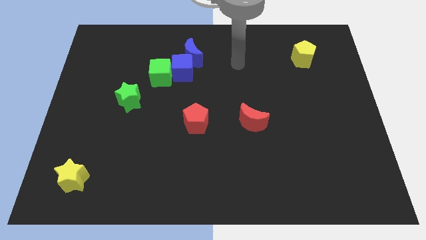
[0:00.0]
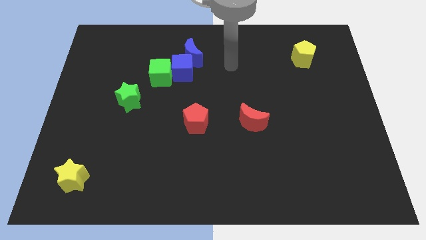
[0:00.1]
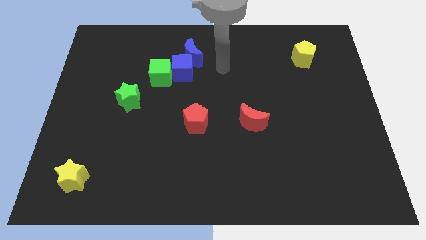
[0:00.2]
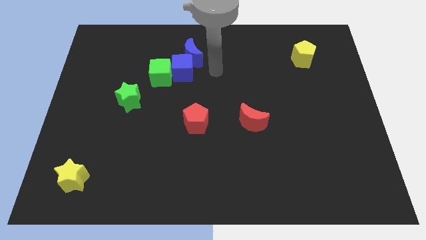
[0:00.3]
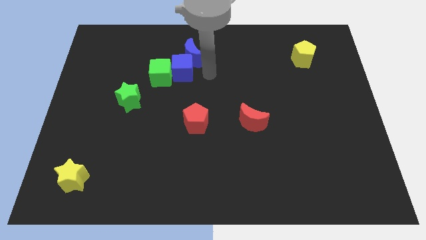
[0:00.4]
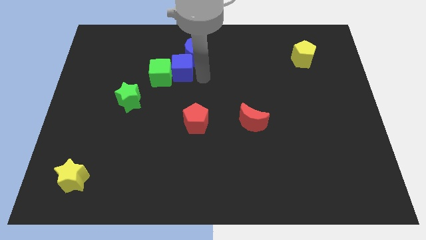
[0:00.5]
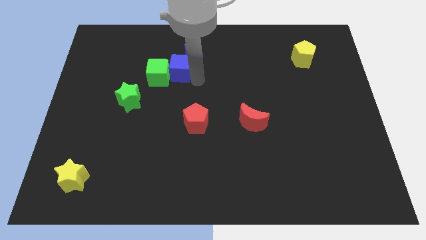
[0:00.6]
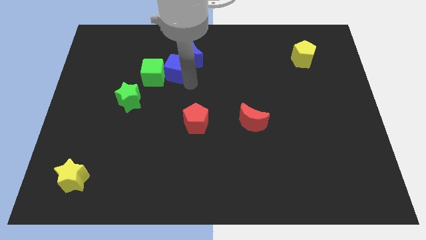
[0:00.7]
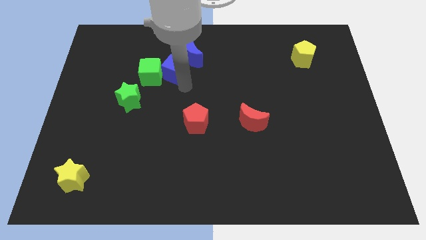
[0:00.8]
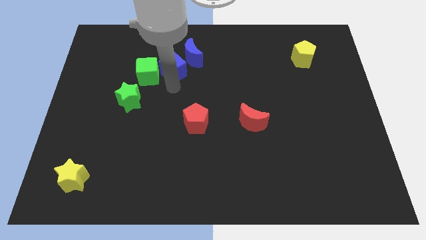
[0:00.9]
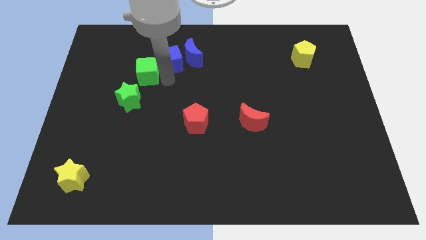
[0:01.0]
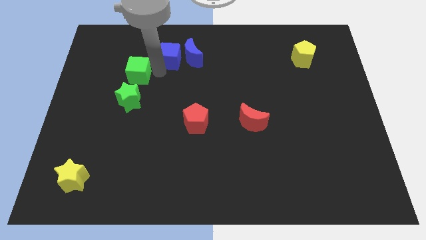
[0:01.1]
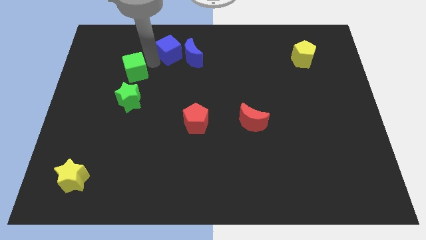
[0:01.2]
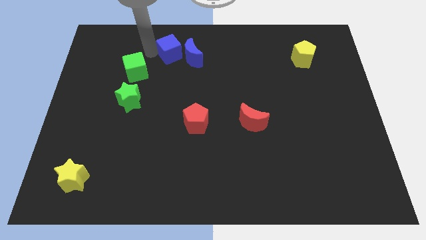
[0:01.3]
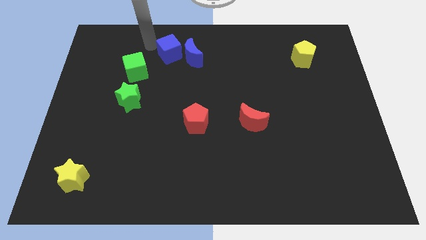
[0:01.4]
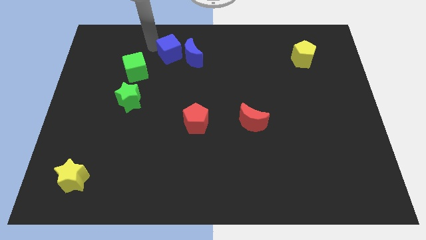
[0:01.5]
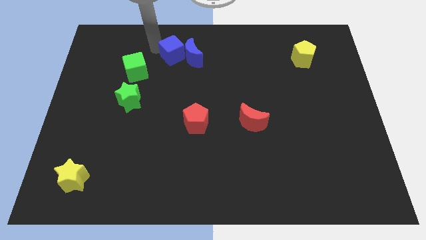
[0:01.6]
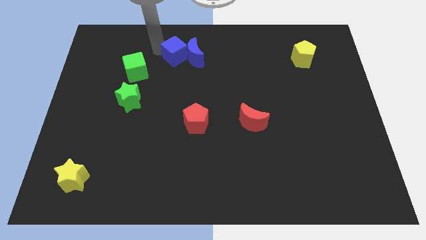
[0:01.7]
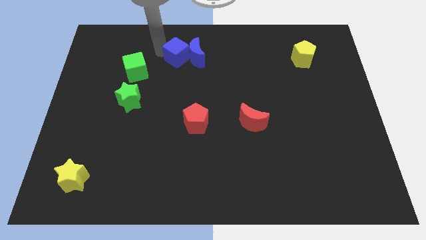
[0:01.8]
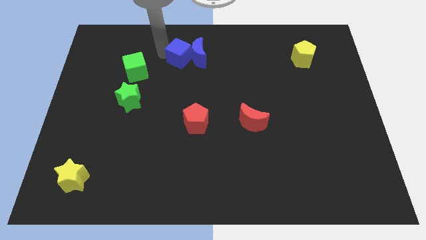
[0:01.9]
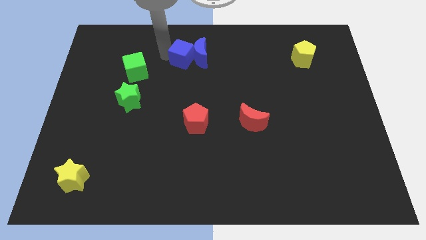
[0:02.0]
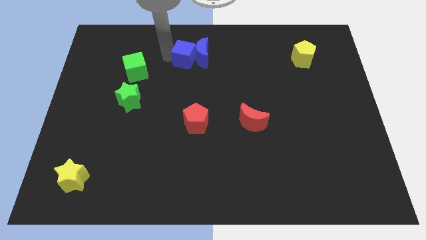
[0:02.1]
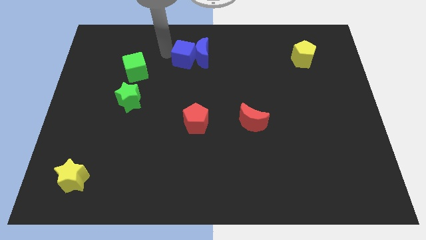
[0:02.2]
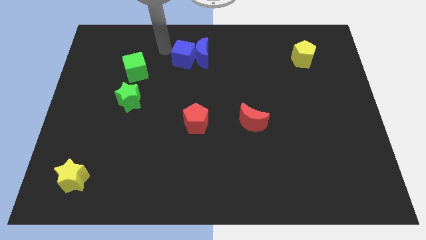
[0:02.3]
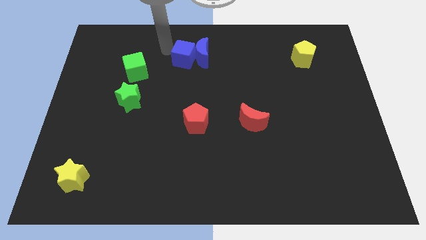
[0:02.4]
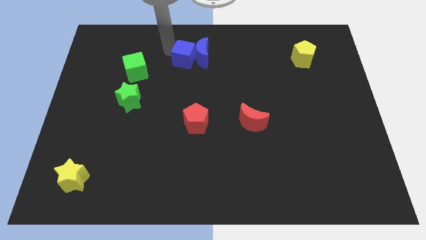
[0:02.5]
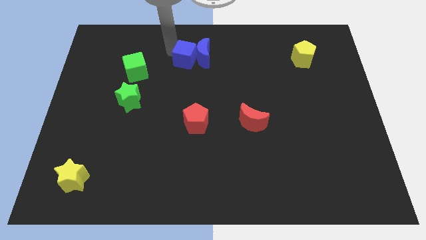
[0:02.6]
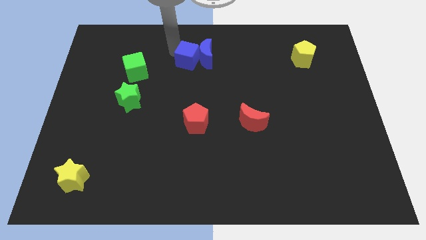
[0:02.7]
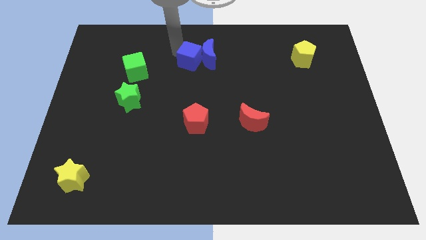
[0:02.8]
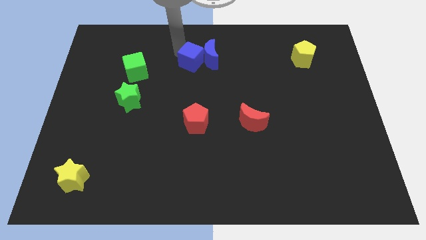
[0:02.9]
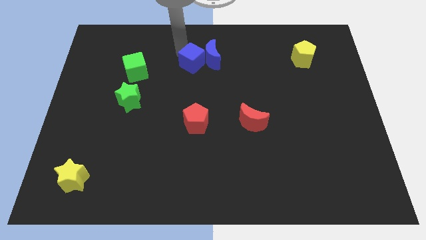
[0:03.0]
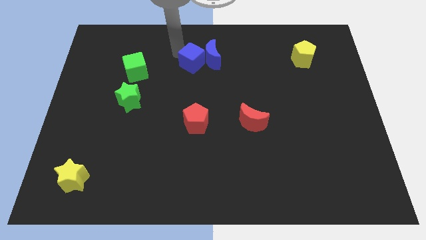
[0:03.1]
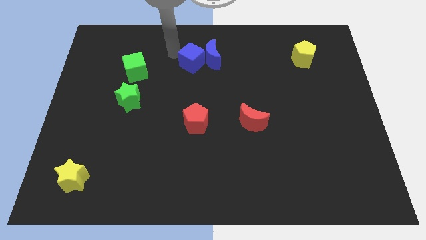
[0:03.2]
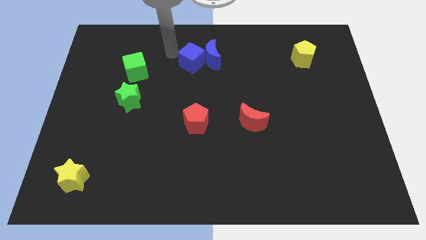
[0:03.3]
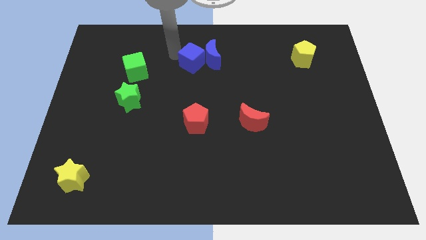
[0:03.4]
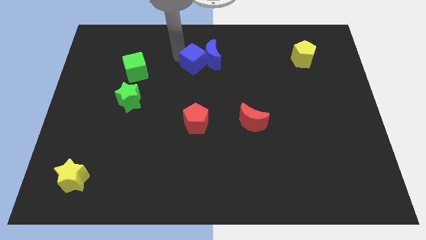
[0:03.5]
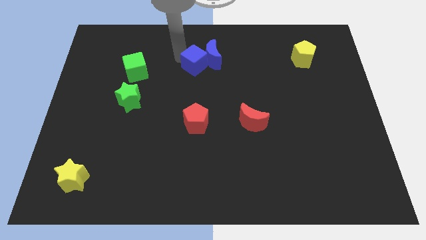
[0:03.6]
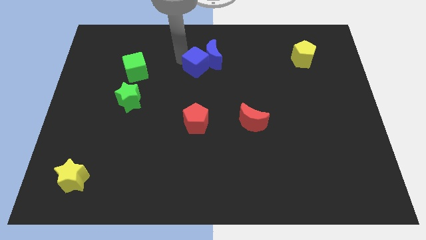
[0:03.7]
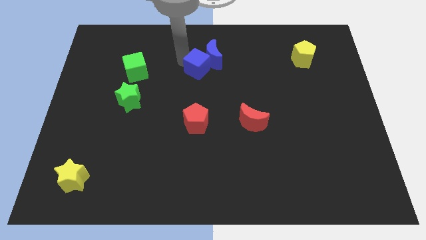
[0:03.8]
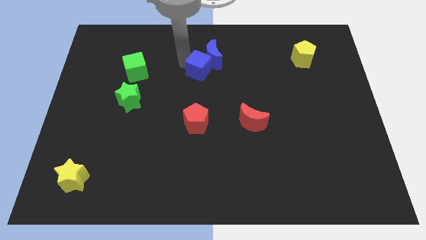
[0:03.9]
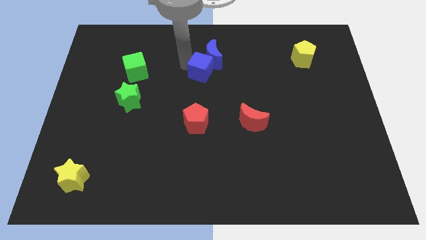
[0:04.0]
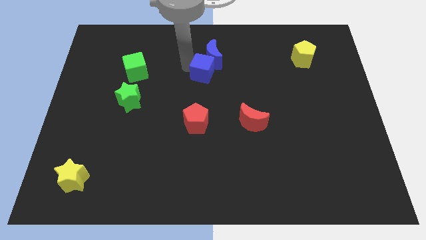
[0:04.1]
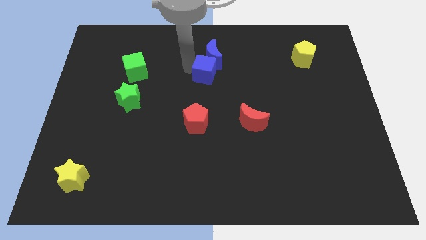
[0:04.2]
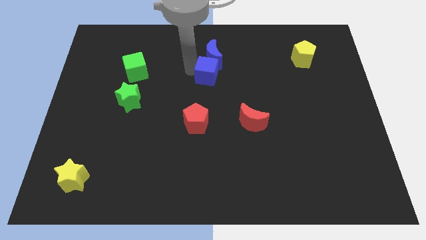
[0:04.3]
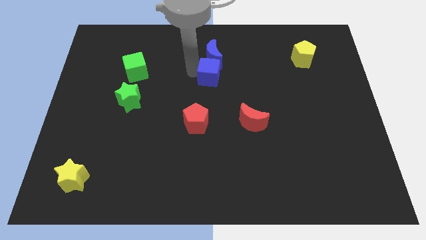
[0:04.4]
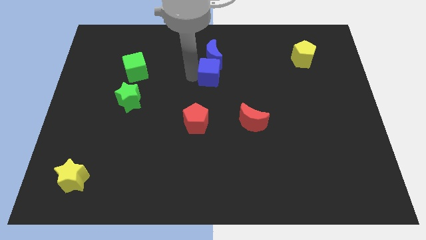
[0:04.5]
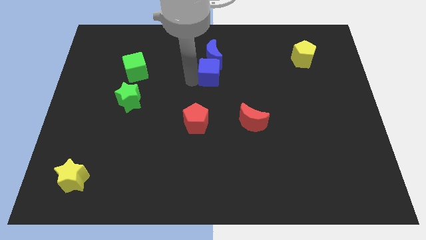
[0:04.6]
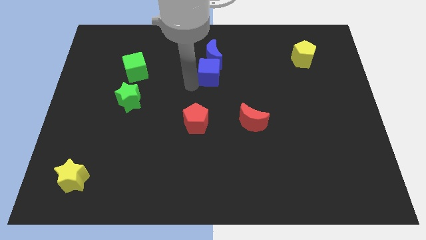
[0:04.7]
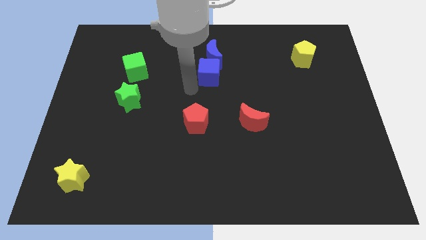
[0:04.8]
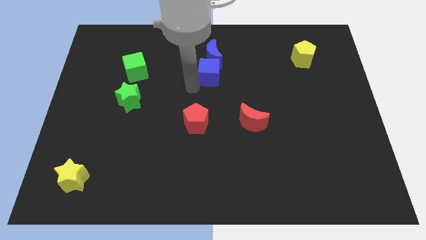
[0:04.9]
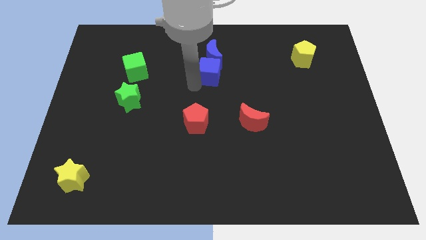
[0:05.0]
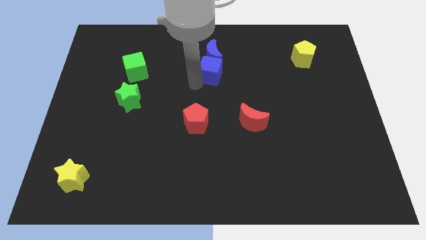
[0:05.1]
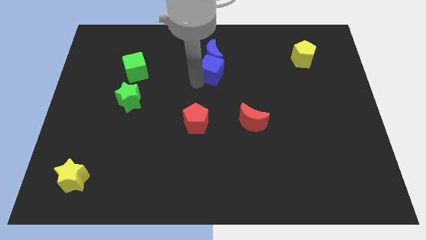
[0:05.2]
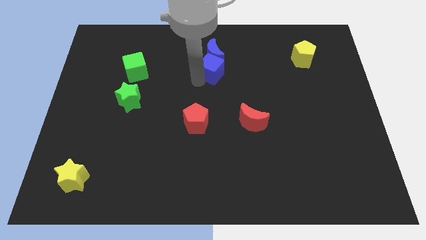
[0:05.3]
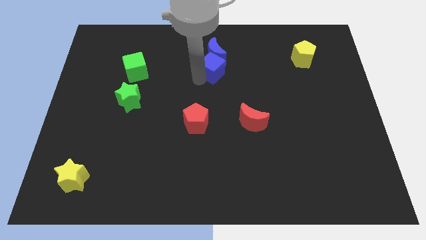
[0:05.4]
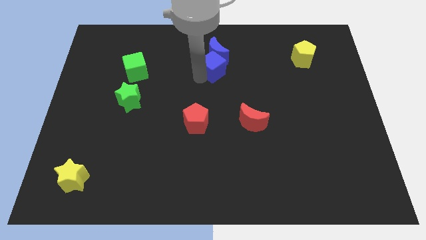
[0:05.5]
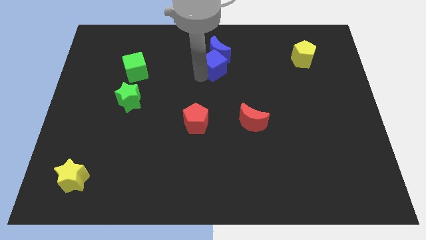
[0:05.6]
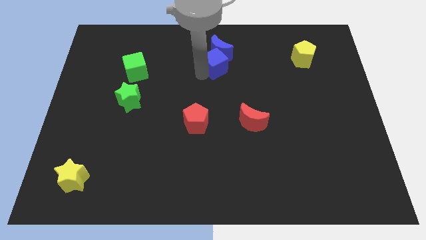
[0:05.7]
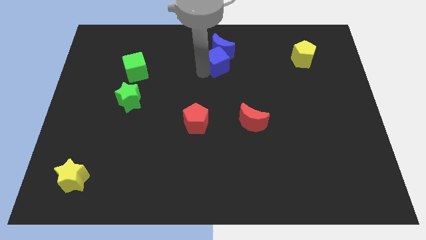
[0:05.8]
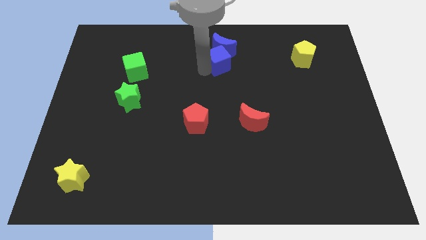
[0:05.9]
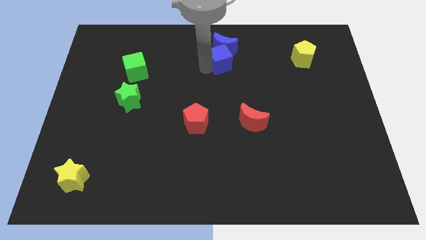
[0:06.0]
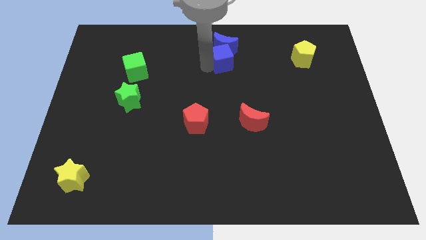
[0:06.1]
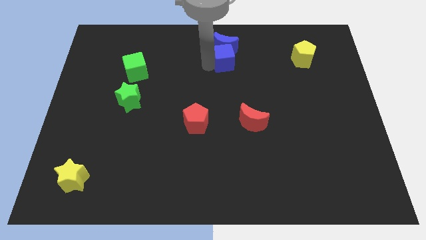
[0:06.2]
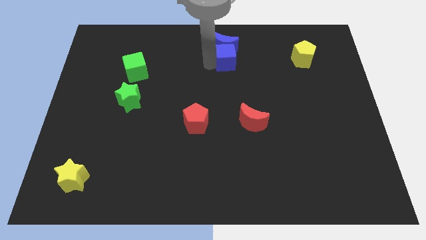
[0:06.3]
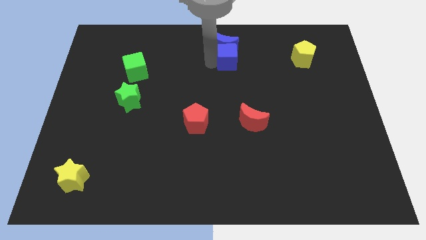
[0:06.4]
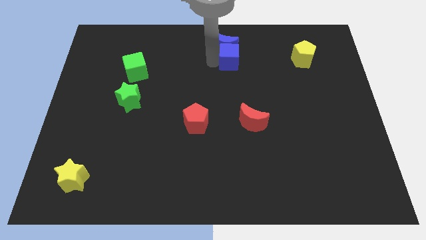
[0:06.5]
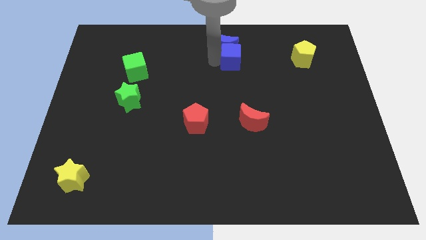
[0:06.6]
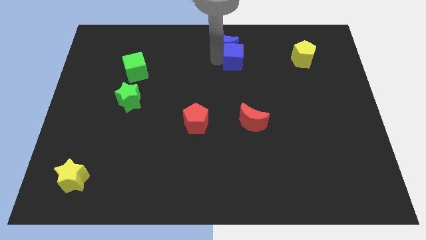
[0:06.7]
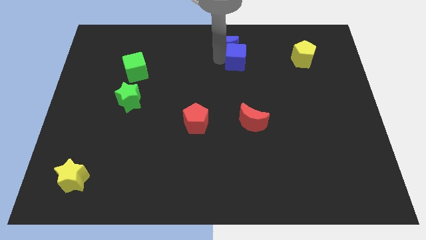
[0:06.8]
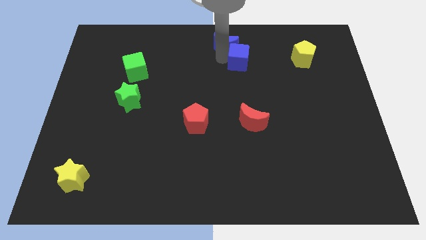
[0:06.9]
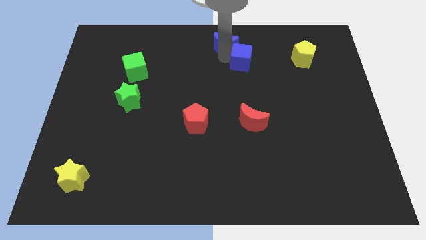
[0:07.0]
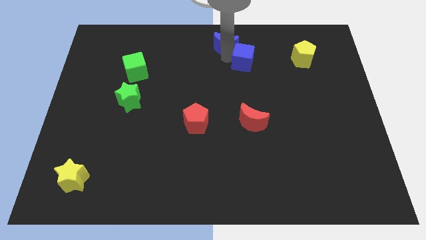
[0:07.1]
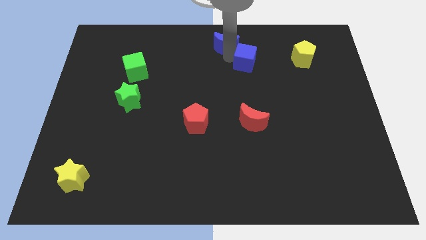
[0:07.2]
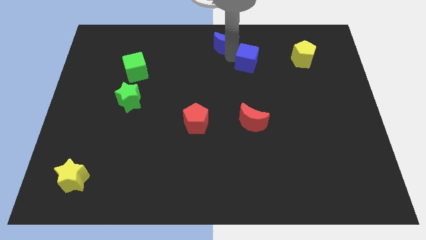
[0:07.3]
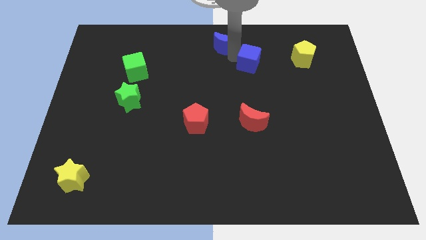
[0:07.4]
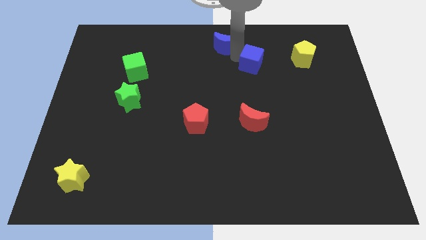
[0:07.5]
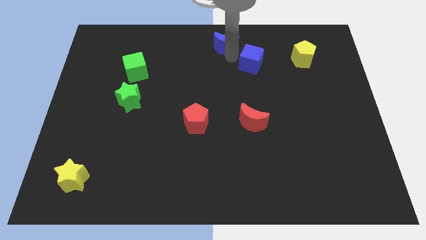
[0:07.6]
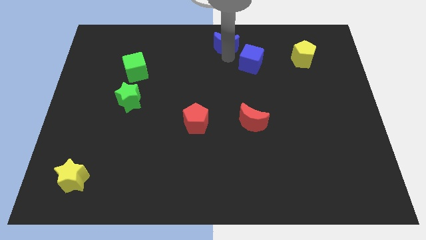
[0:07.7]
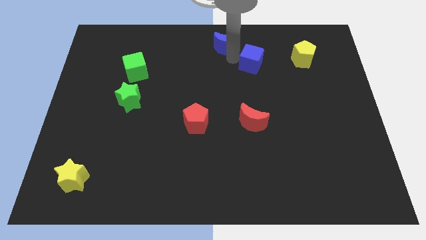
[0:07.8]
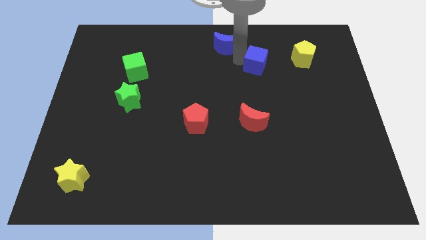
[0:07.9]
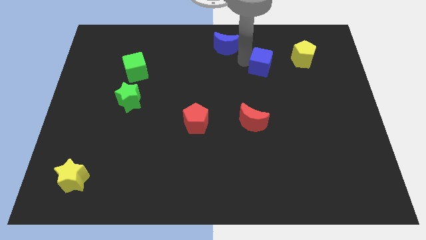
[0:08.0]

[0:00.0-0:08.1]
slide the blue cube to the right

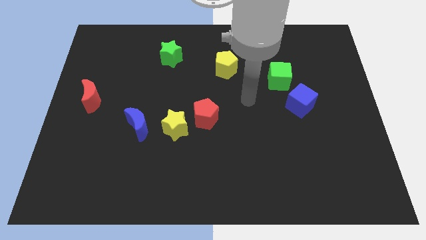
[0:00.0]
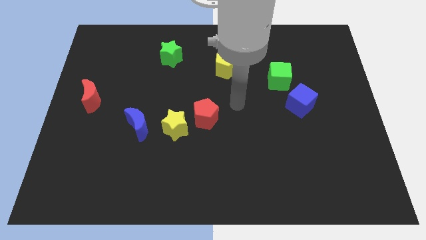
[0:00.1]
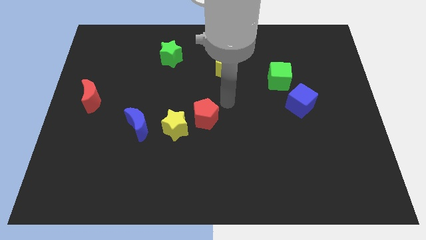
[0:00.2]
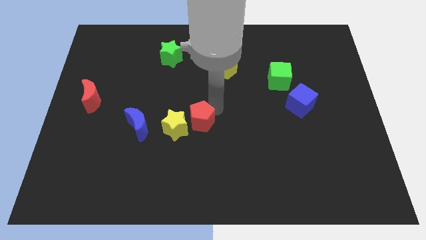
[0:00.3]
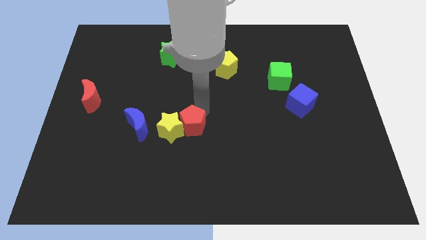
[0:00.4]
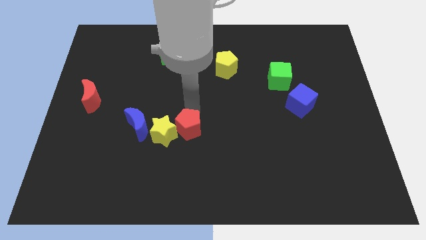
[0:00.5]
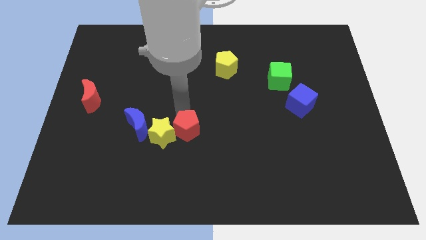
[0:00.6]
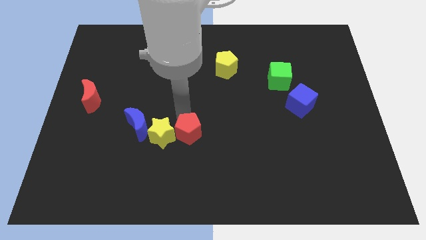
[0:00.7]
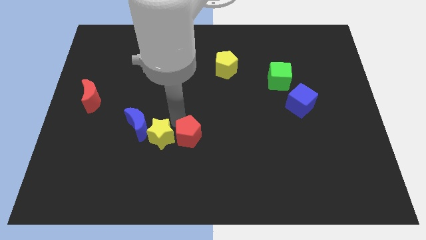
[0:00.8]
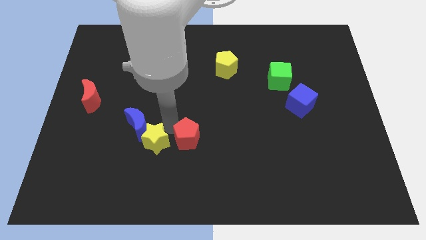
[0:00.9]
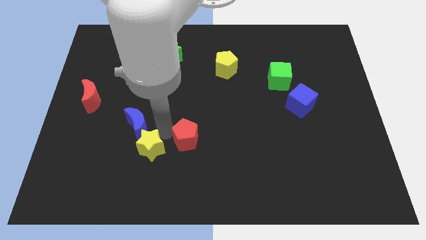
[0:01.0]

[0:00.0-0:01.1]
slightly slide the yellow star diagonally down and to the left
